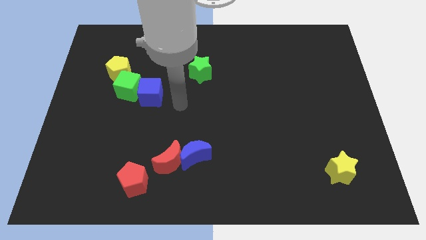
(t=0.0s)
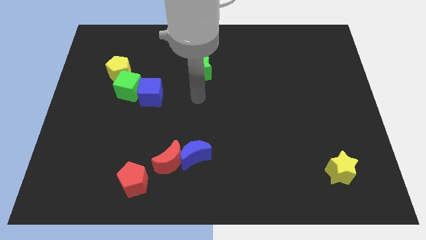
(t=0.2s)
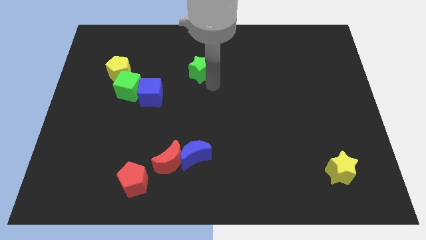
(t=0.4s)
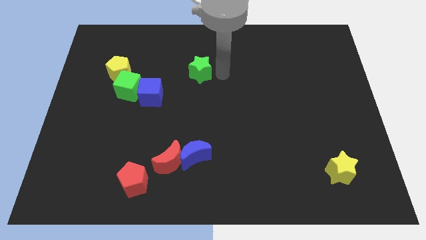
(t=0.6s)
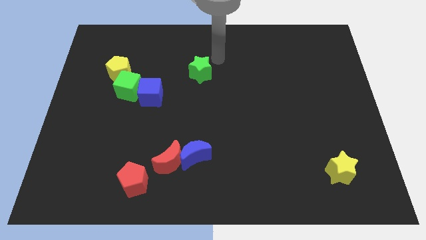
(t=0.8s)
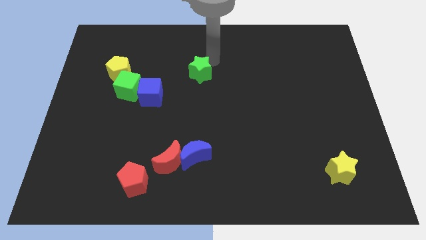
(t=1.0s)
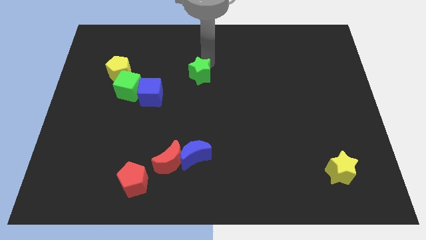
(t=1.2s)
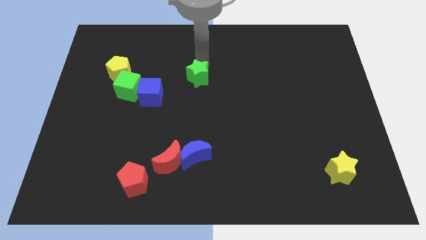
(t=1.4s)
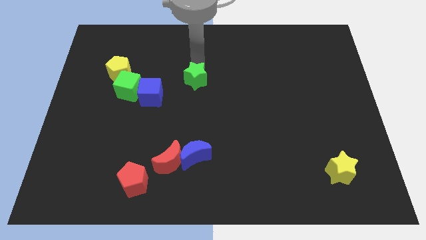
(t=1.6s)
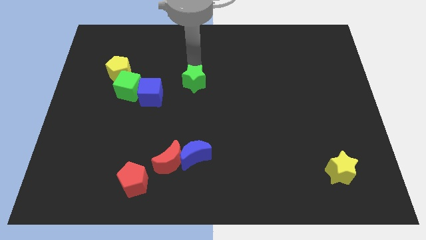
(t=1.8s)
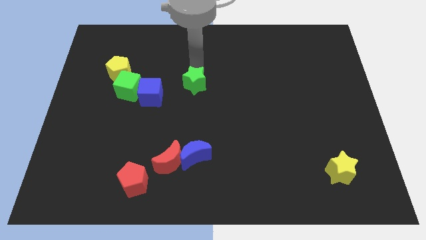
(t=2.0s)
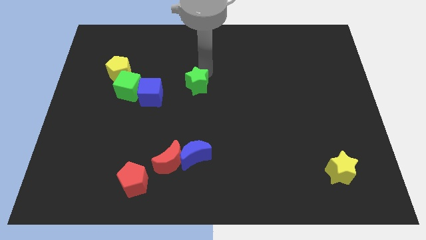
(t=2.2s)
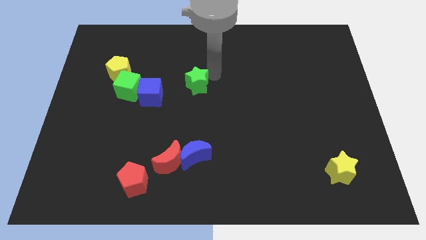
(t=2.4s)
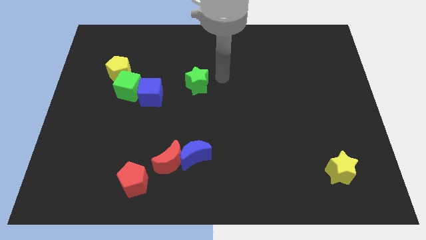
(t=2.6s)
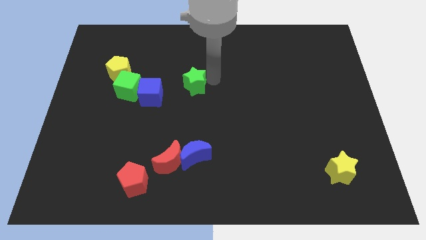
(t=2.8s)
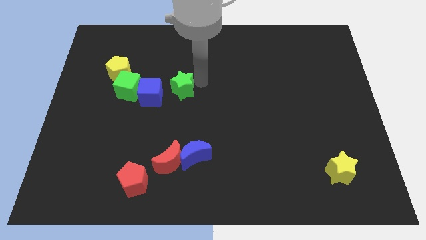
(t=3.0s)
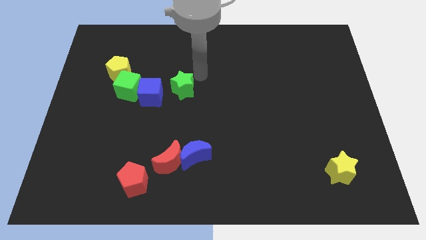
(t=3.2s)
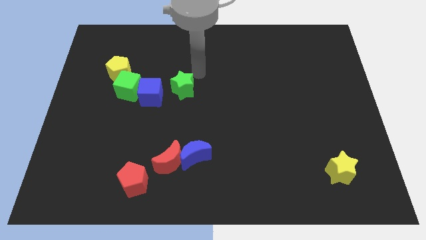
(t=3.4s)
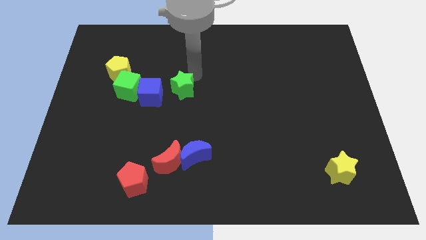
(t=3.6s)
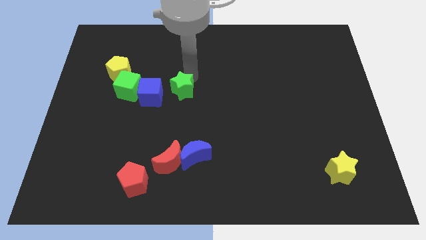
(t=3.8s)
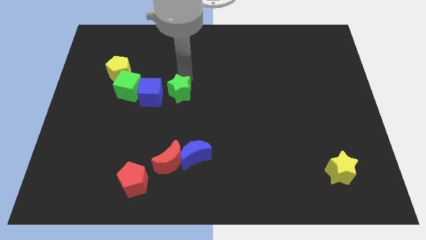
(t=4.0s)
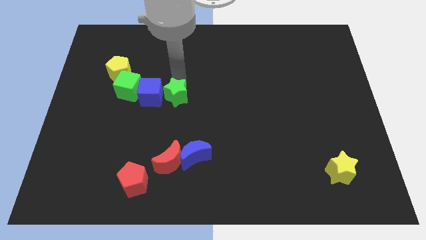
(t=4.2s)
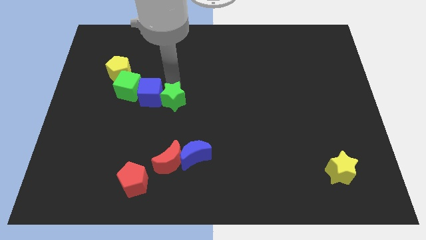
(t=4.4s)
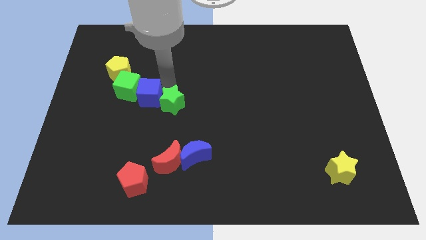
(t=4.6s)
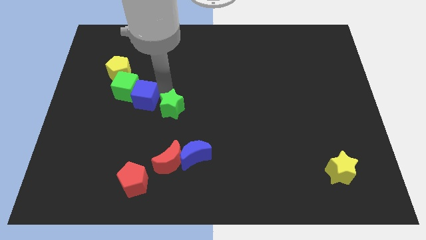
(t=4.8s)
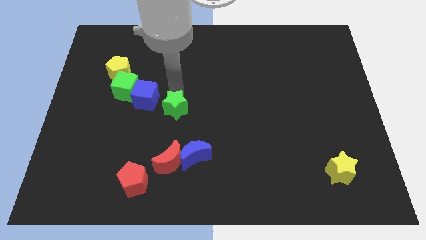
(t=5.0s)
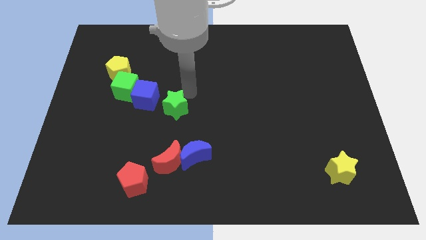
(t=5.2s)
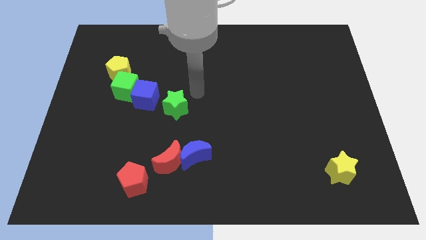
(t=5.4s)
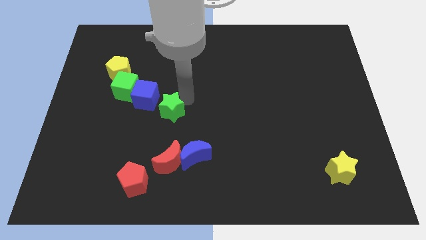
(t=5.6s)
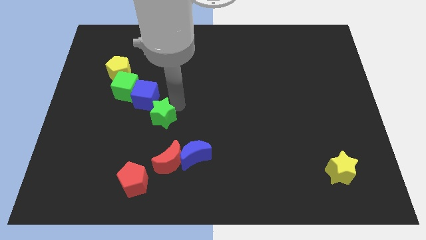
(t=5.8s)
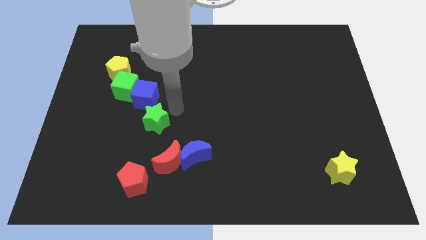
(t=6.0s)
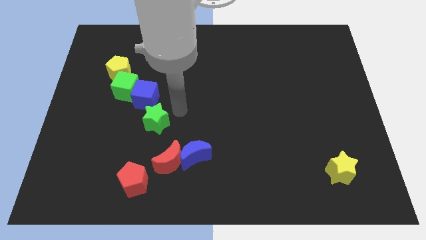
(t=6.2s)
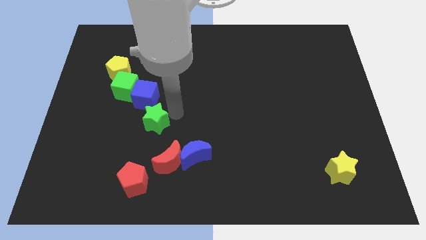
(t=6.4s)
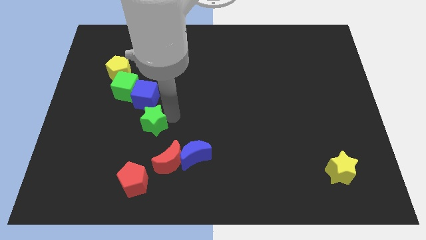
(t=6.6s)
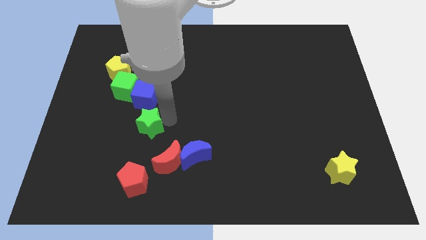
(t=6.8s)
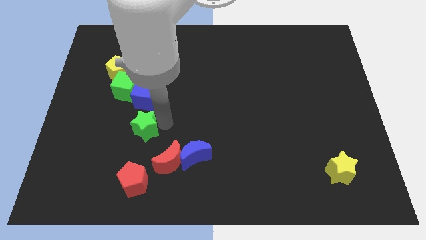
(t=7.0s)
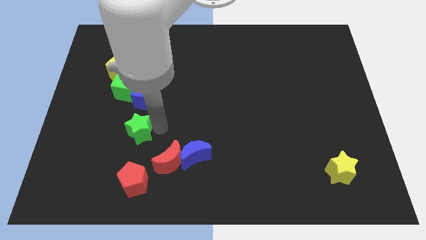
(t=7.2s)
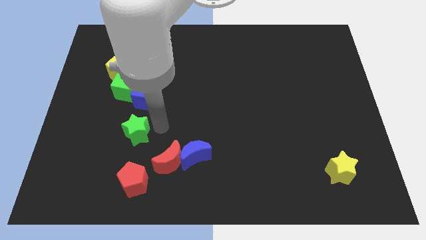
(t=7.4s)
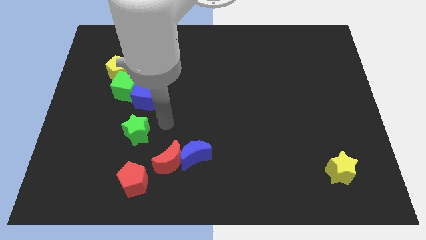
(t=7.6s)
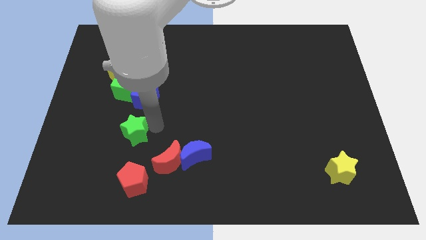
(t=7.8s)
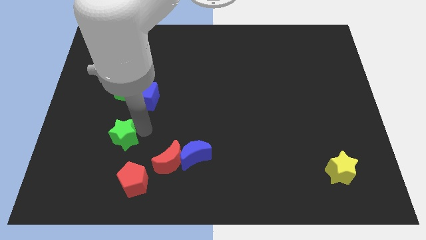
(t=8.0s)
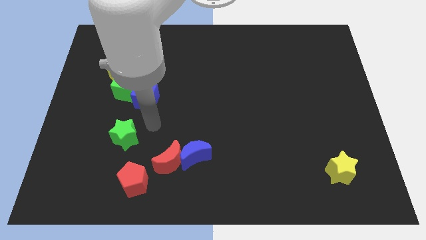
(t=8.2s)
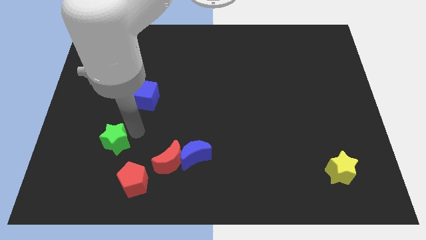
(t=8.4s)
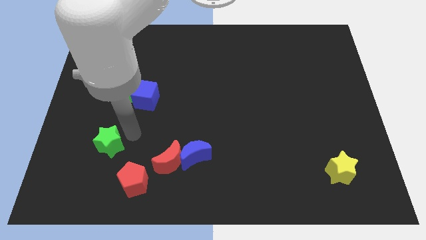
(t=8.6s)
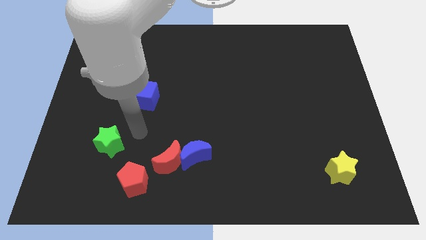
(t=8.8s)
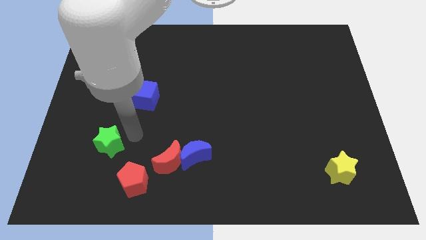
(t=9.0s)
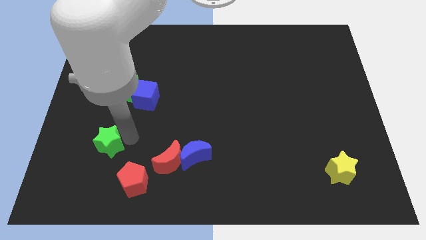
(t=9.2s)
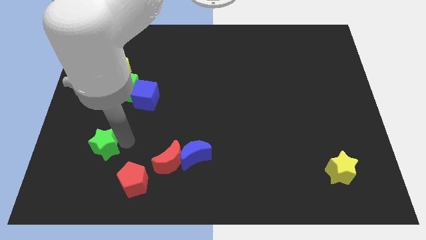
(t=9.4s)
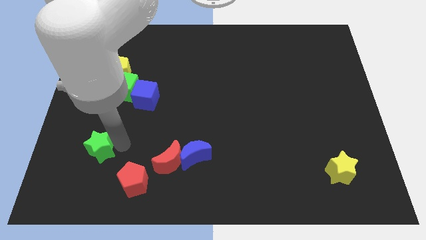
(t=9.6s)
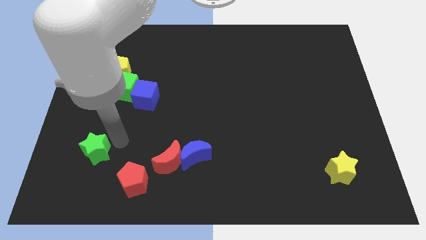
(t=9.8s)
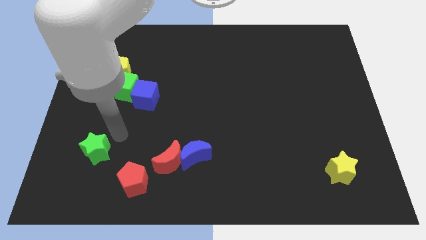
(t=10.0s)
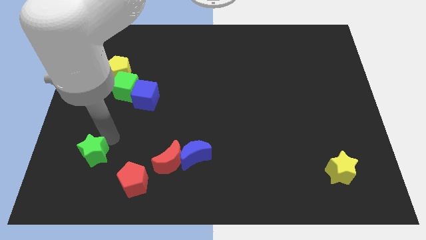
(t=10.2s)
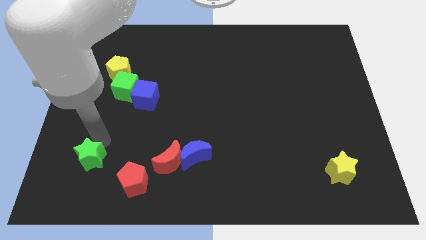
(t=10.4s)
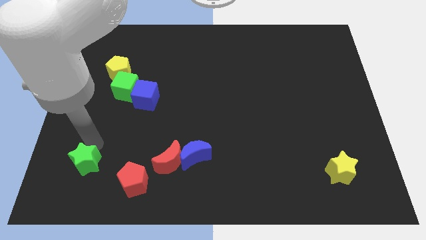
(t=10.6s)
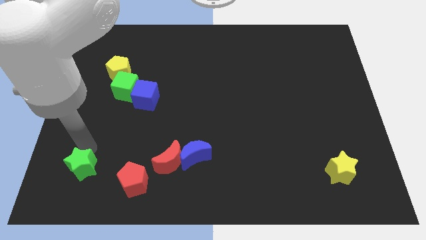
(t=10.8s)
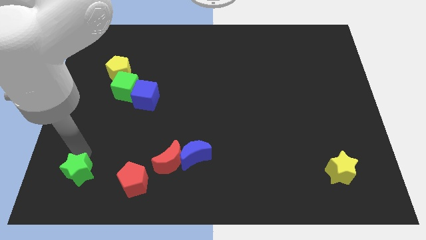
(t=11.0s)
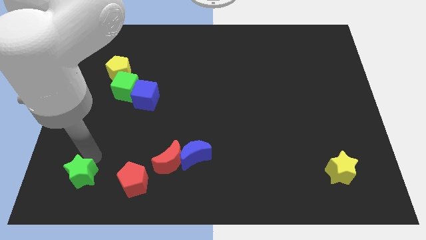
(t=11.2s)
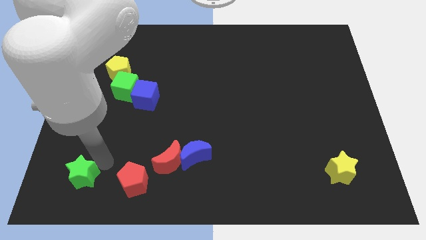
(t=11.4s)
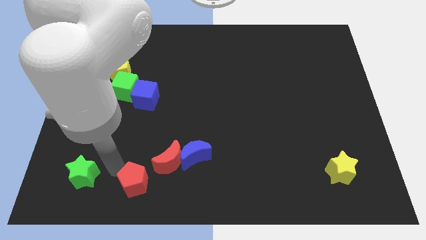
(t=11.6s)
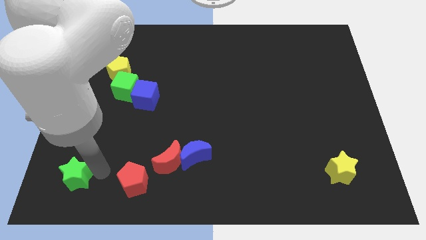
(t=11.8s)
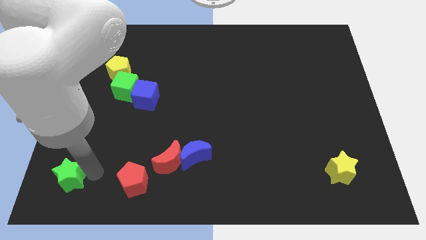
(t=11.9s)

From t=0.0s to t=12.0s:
move the green star to the bottom left

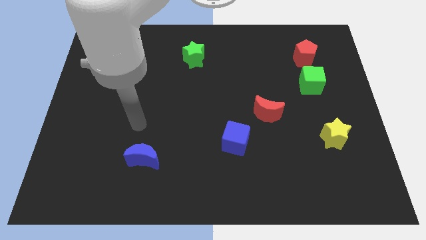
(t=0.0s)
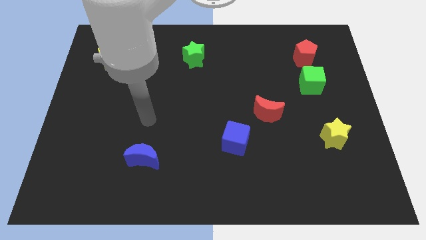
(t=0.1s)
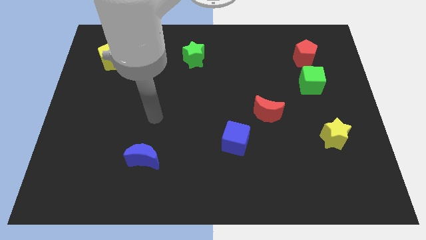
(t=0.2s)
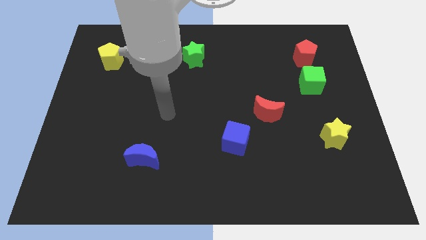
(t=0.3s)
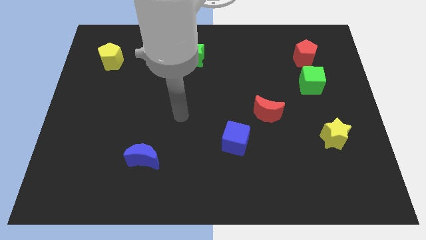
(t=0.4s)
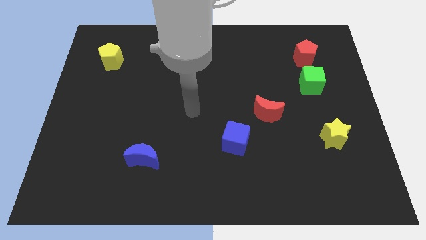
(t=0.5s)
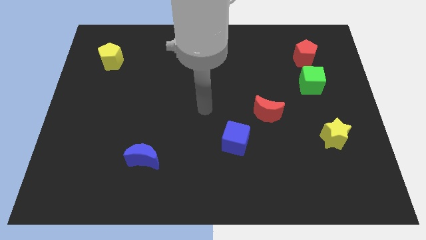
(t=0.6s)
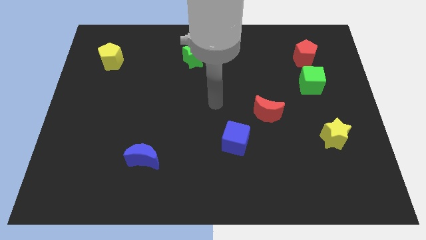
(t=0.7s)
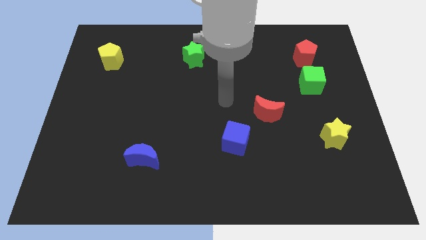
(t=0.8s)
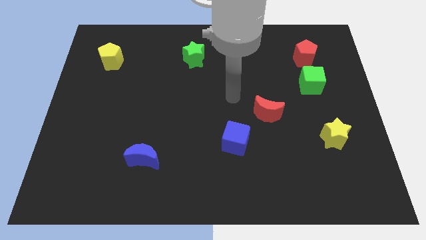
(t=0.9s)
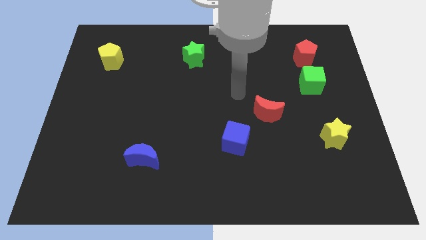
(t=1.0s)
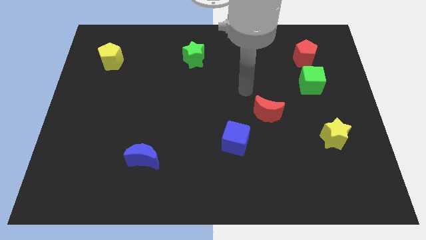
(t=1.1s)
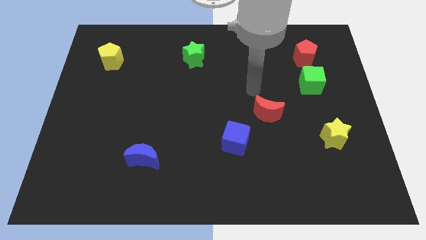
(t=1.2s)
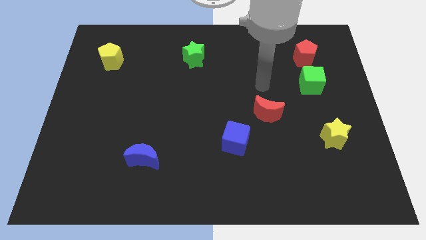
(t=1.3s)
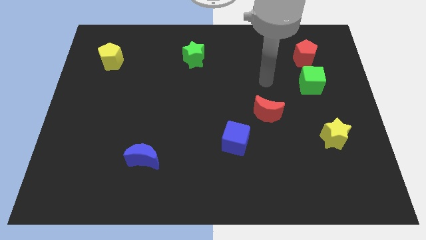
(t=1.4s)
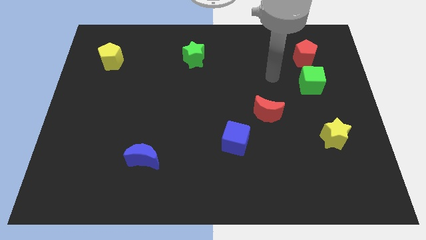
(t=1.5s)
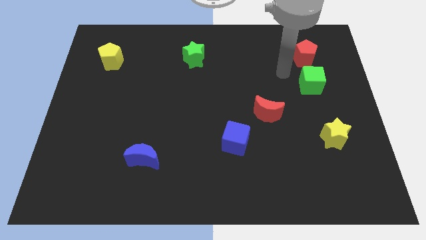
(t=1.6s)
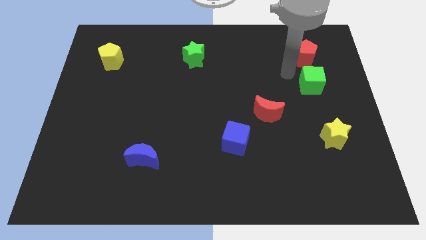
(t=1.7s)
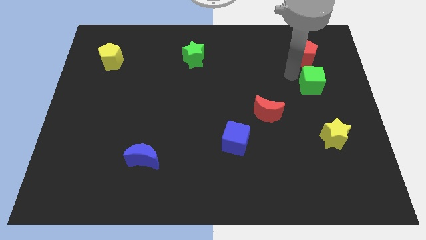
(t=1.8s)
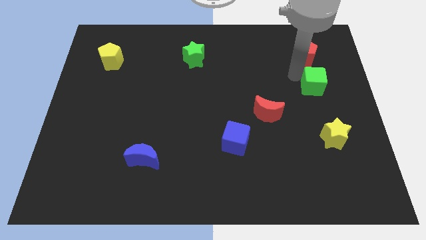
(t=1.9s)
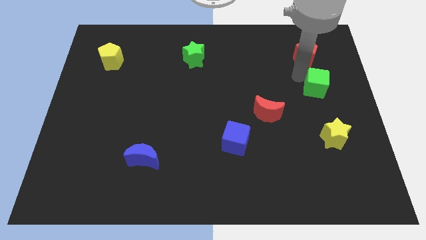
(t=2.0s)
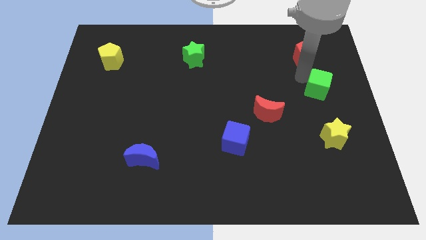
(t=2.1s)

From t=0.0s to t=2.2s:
push the green cube to the center right
